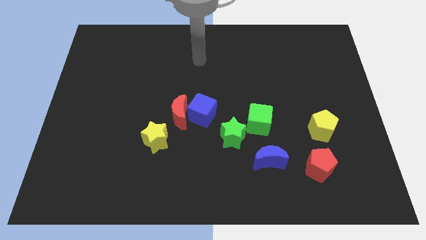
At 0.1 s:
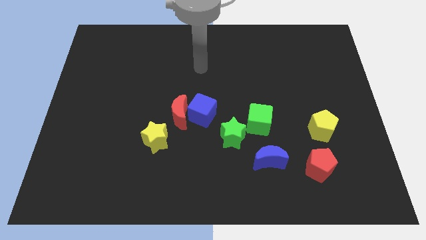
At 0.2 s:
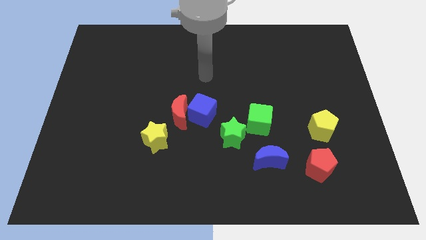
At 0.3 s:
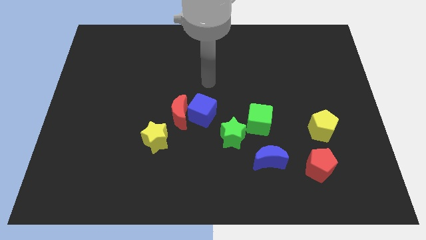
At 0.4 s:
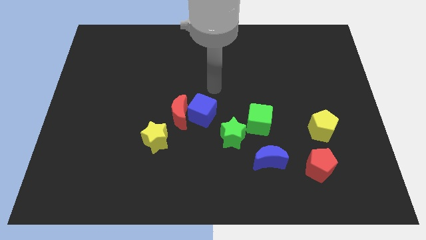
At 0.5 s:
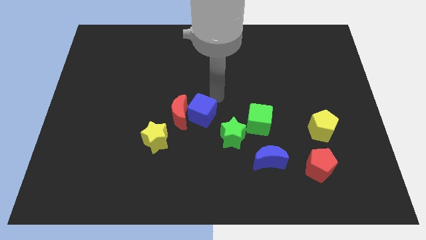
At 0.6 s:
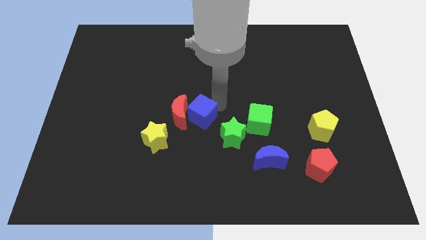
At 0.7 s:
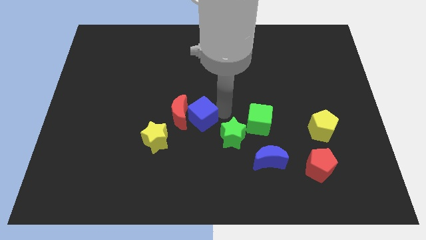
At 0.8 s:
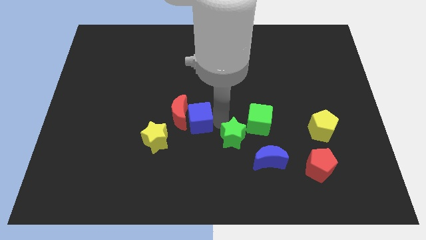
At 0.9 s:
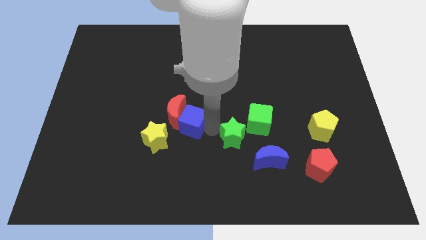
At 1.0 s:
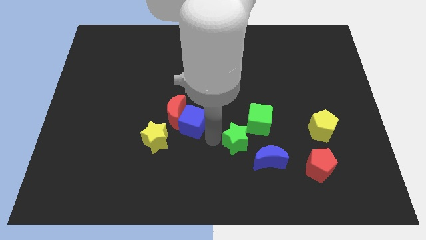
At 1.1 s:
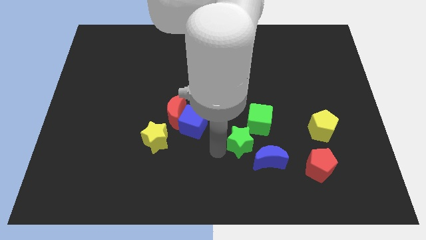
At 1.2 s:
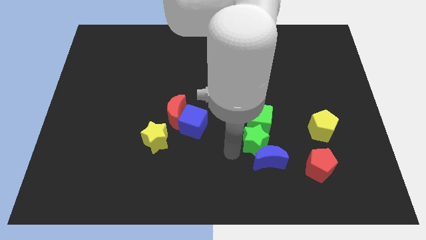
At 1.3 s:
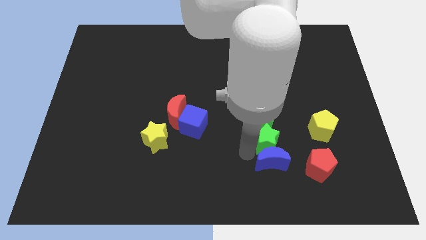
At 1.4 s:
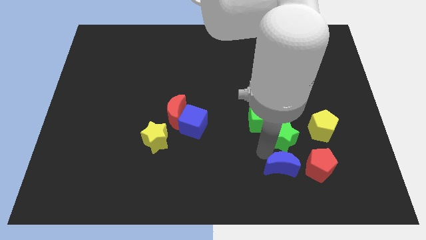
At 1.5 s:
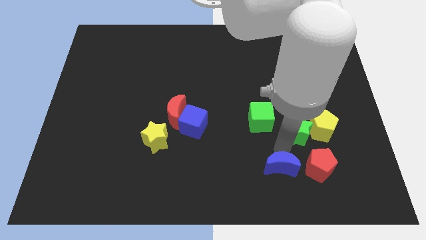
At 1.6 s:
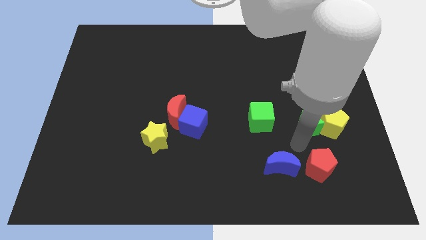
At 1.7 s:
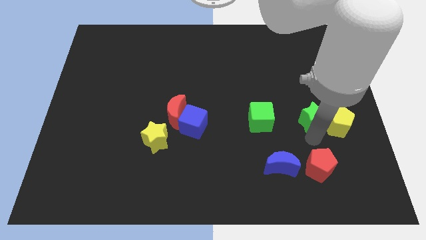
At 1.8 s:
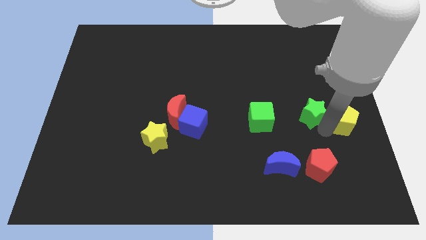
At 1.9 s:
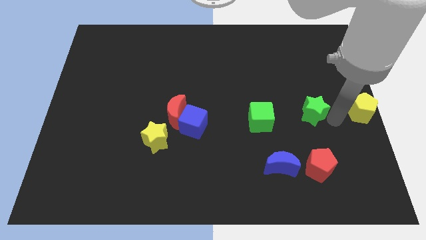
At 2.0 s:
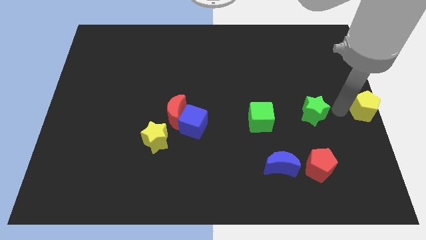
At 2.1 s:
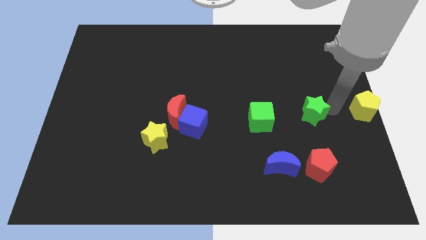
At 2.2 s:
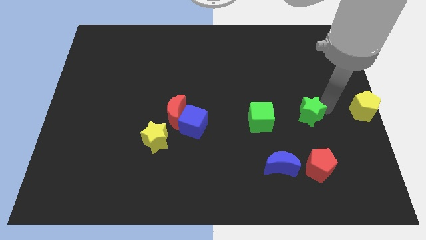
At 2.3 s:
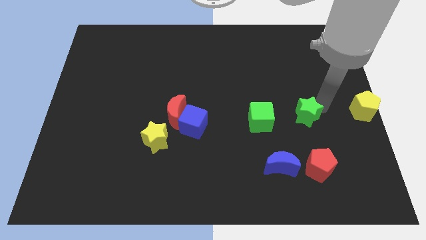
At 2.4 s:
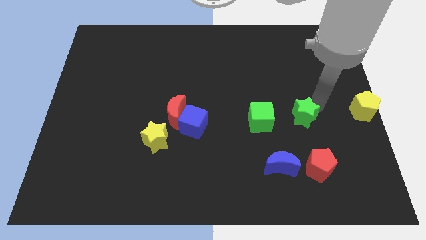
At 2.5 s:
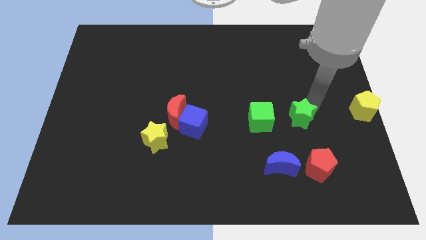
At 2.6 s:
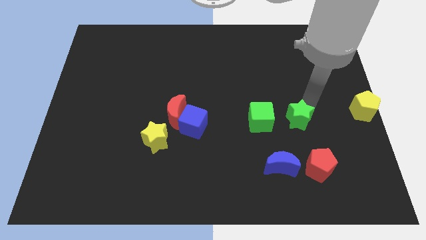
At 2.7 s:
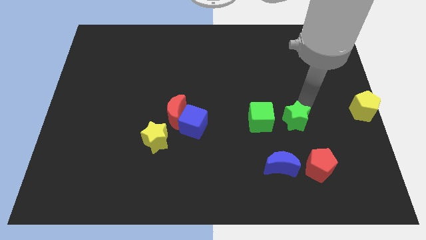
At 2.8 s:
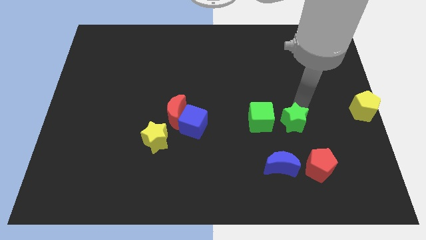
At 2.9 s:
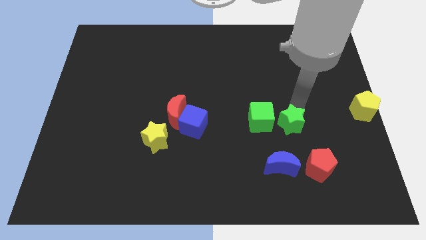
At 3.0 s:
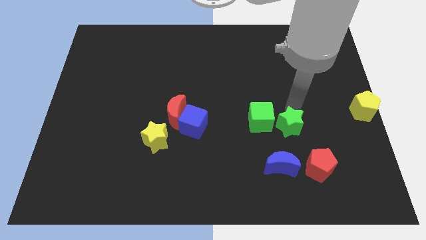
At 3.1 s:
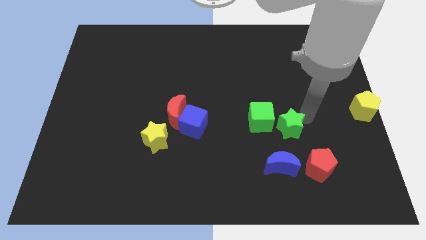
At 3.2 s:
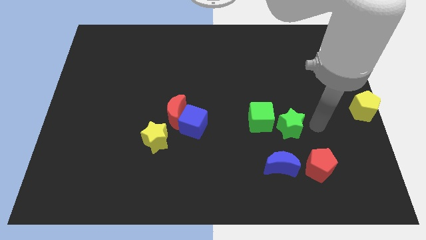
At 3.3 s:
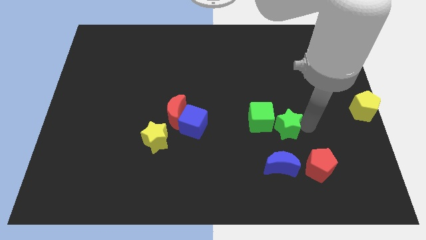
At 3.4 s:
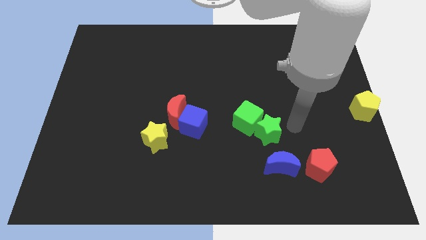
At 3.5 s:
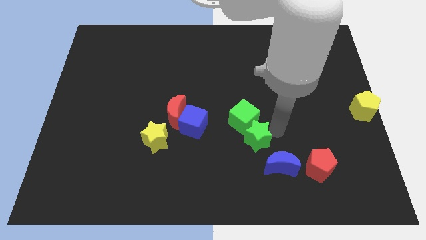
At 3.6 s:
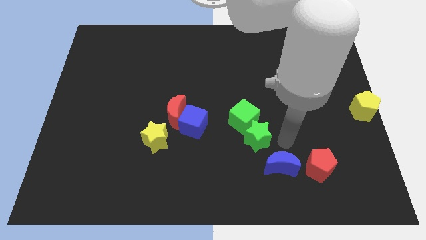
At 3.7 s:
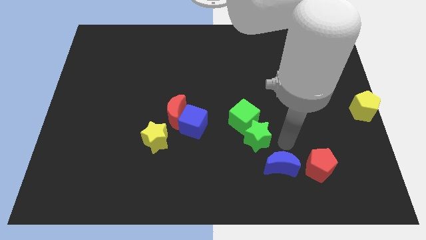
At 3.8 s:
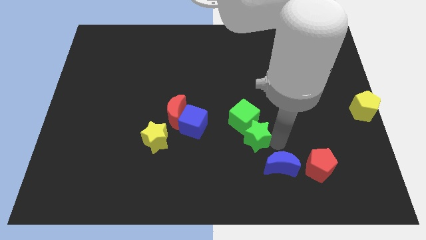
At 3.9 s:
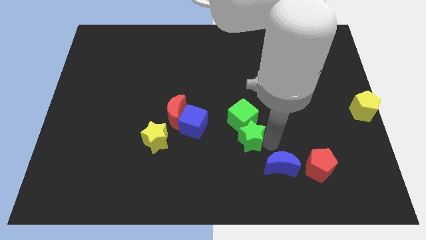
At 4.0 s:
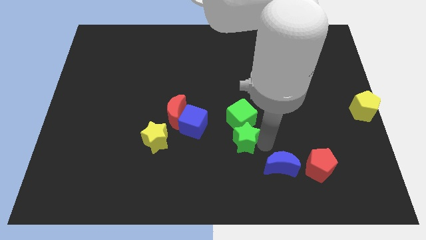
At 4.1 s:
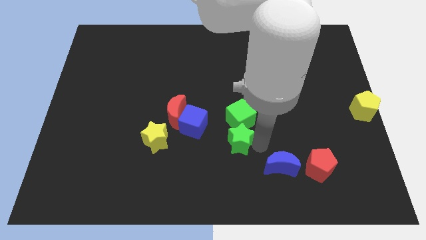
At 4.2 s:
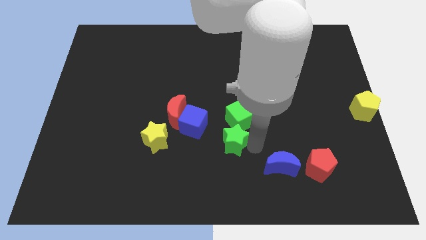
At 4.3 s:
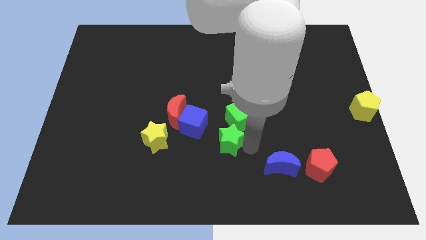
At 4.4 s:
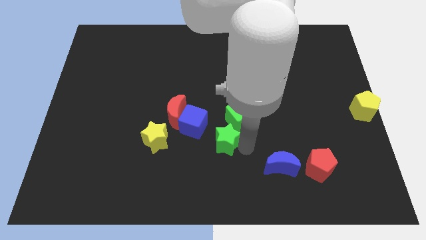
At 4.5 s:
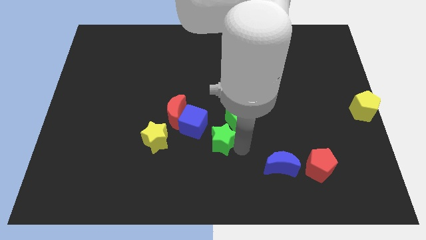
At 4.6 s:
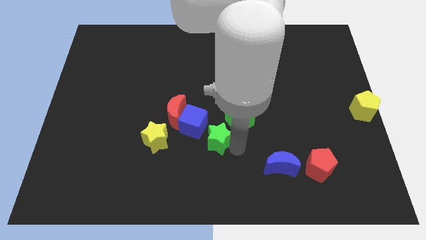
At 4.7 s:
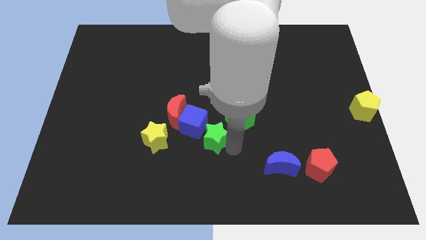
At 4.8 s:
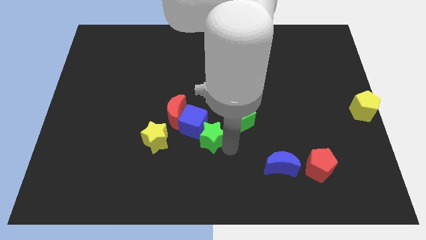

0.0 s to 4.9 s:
push the green star next to the blue cube

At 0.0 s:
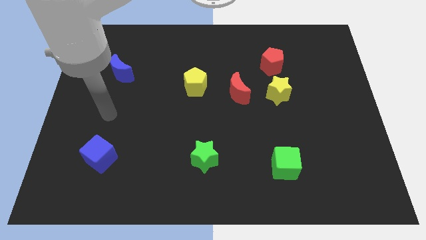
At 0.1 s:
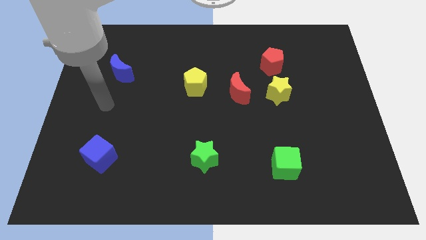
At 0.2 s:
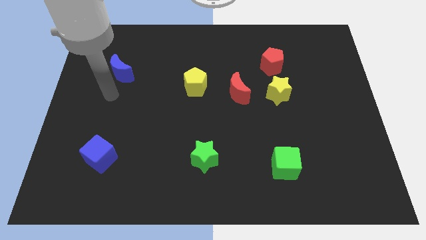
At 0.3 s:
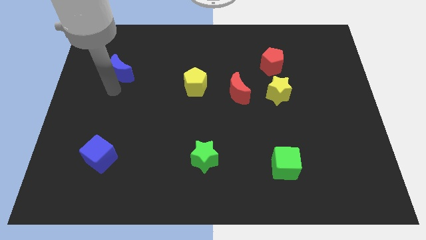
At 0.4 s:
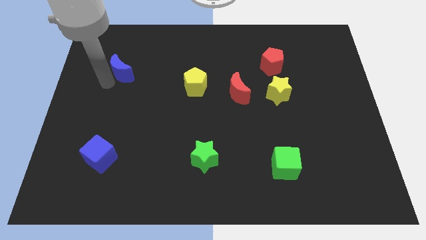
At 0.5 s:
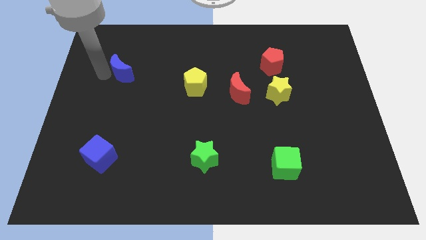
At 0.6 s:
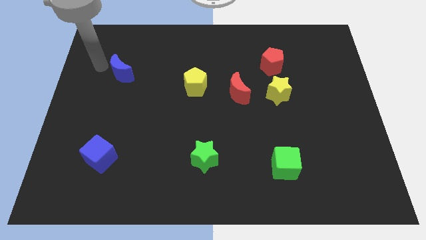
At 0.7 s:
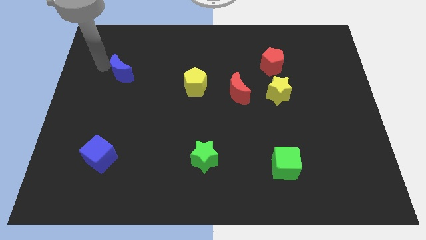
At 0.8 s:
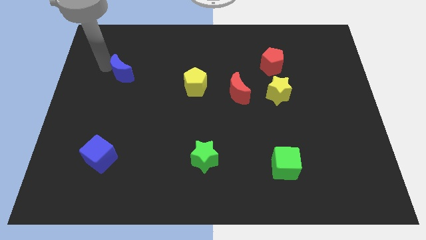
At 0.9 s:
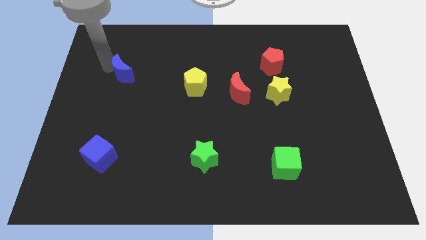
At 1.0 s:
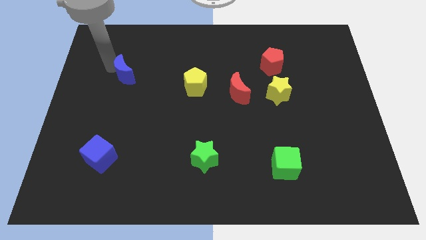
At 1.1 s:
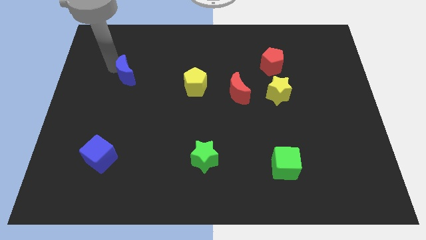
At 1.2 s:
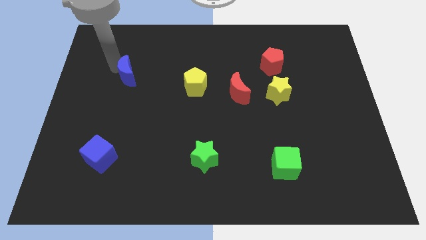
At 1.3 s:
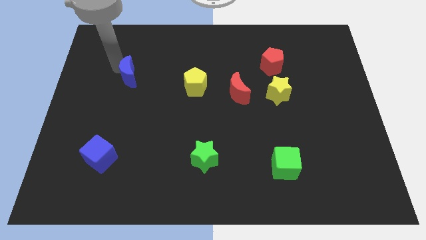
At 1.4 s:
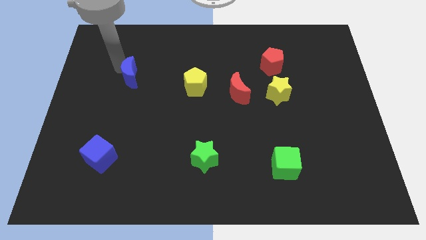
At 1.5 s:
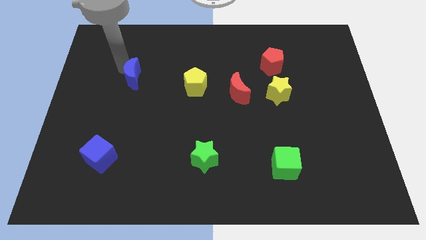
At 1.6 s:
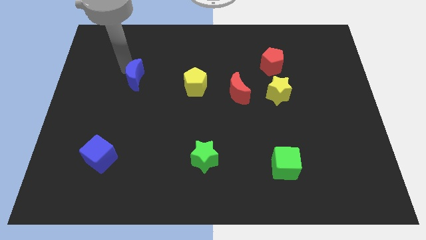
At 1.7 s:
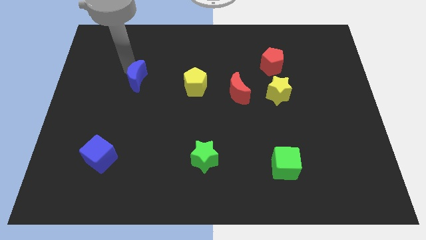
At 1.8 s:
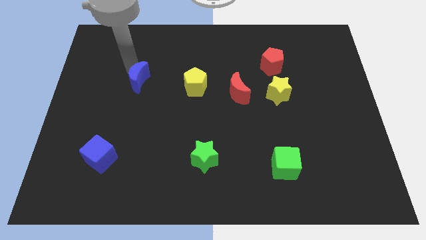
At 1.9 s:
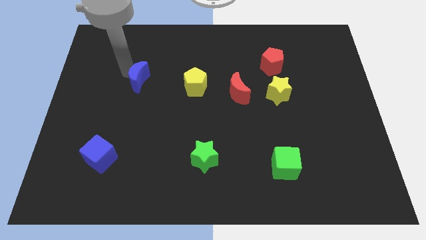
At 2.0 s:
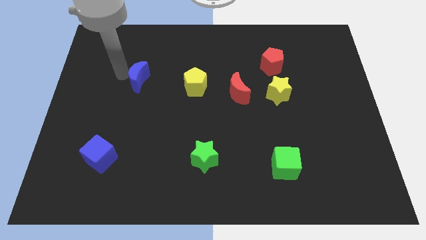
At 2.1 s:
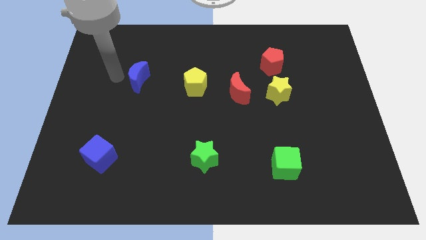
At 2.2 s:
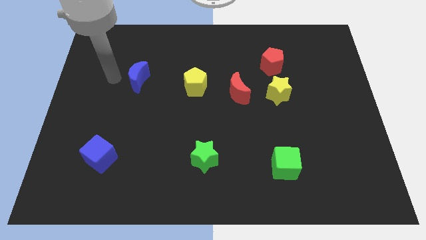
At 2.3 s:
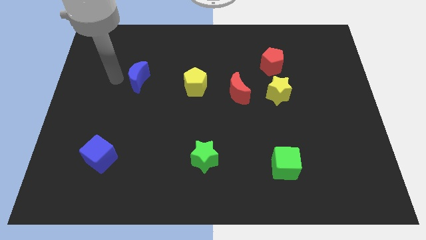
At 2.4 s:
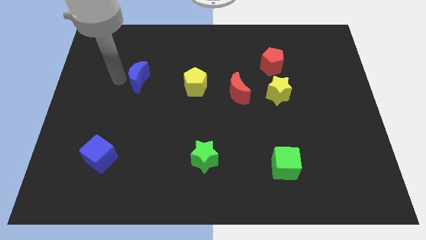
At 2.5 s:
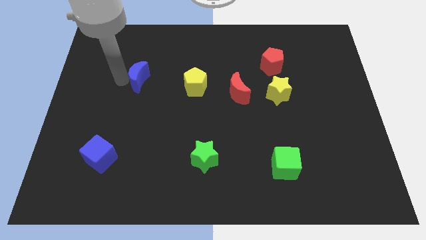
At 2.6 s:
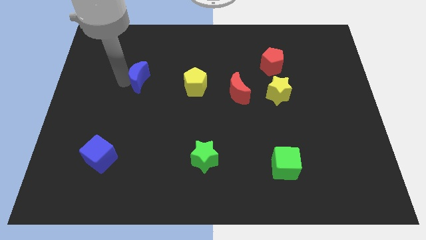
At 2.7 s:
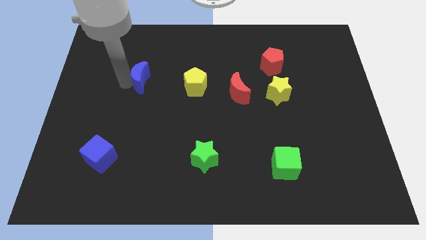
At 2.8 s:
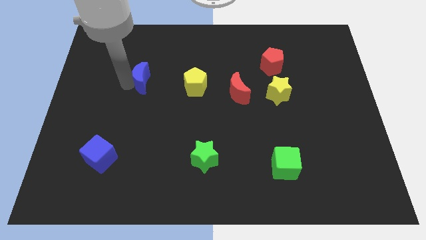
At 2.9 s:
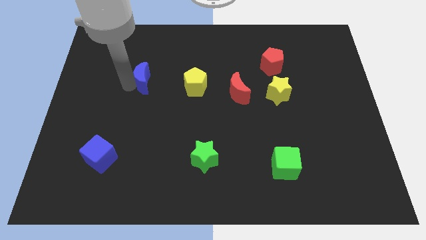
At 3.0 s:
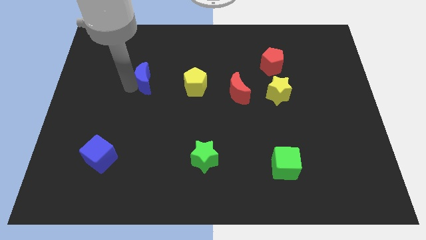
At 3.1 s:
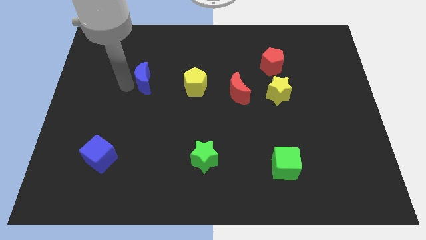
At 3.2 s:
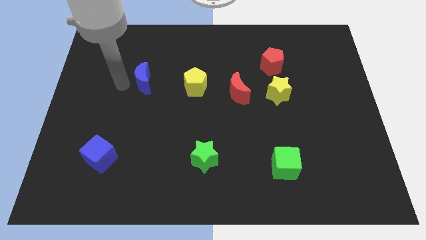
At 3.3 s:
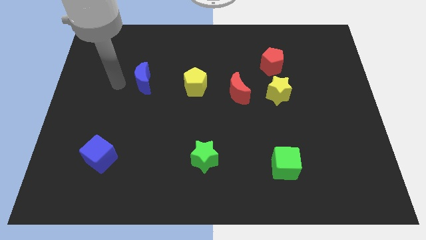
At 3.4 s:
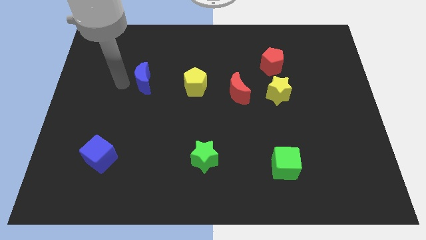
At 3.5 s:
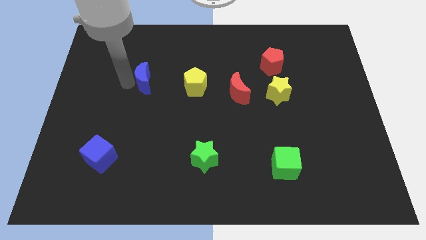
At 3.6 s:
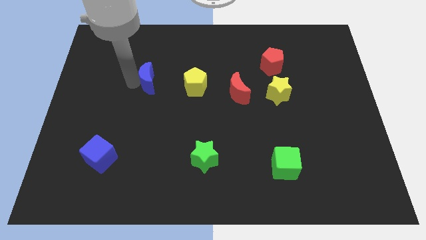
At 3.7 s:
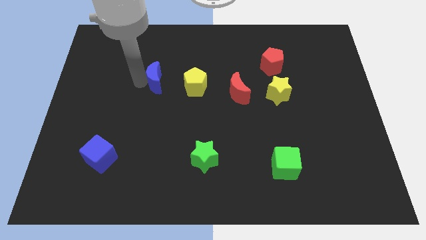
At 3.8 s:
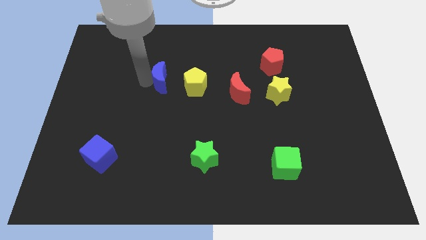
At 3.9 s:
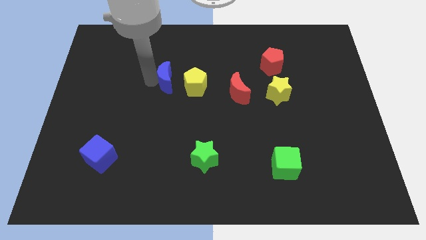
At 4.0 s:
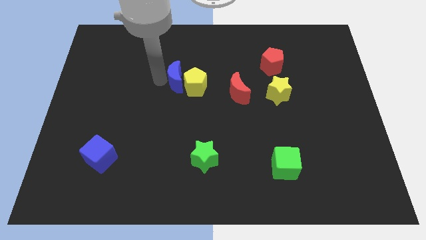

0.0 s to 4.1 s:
put the blue moon to the yellow pentagon
